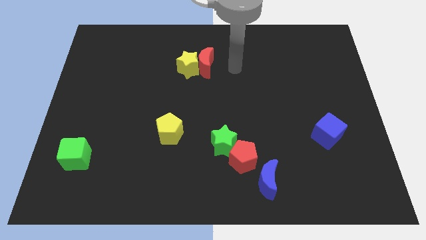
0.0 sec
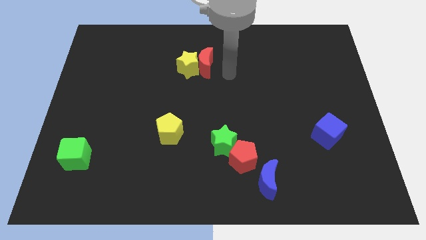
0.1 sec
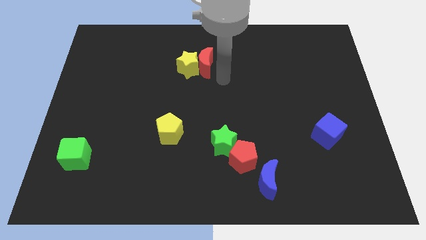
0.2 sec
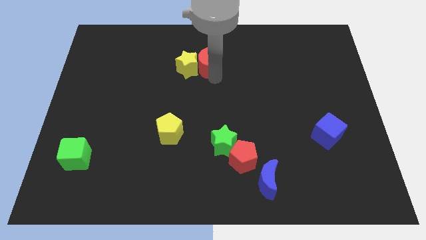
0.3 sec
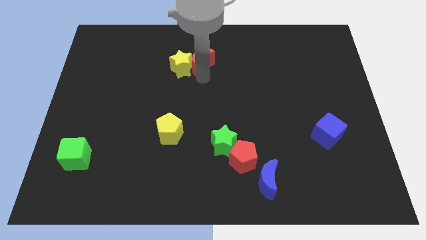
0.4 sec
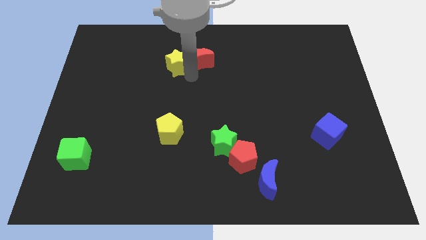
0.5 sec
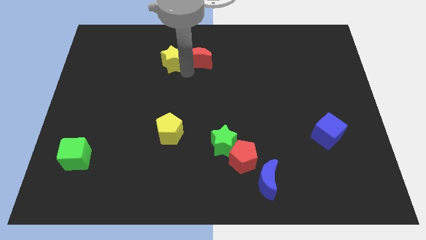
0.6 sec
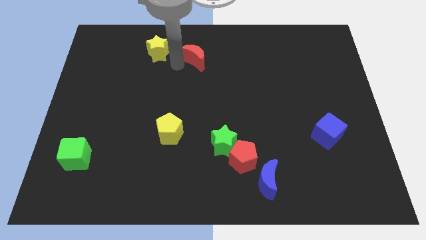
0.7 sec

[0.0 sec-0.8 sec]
pull the red moon apart from the yellow star

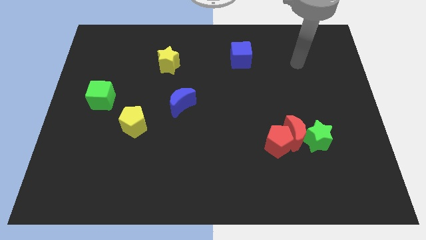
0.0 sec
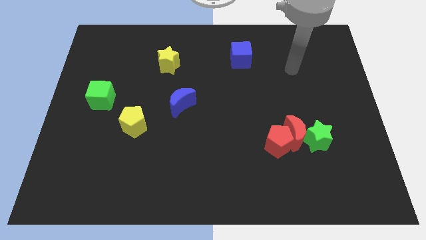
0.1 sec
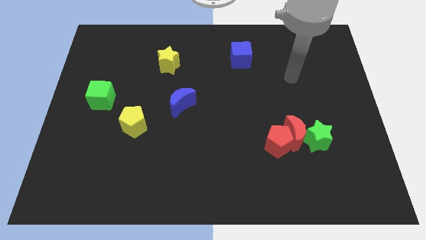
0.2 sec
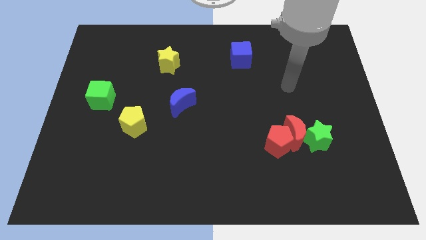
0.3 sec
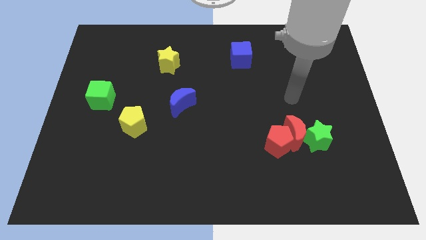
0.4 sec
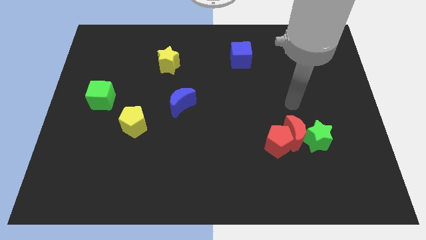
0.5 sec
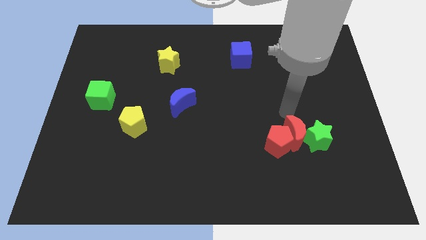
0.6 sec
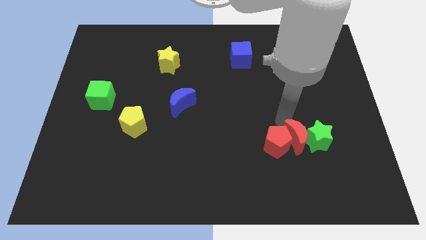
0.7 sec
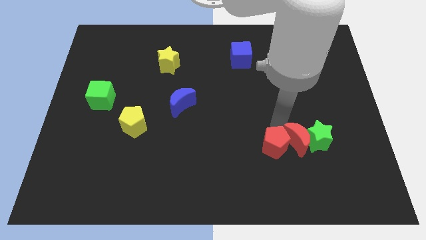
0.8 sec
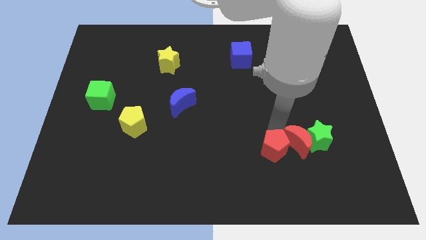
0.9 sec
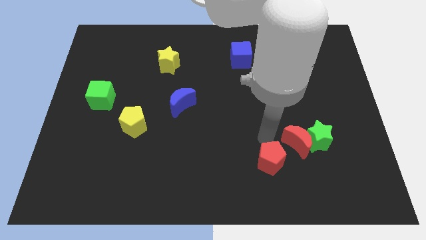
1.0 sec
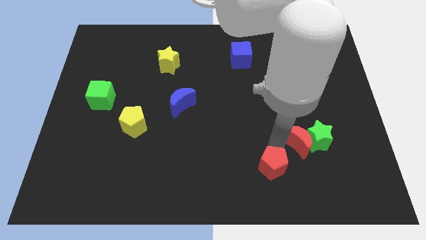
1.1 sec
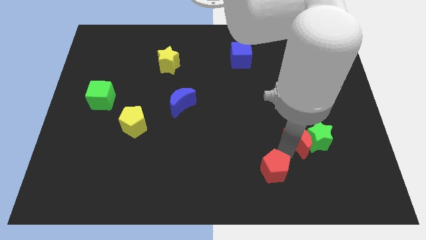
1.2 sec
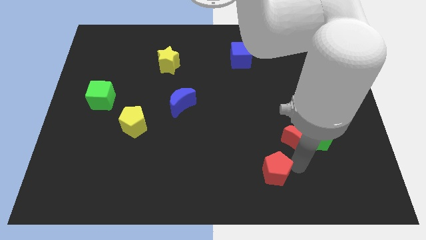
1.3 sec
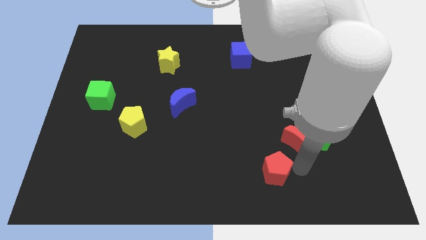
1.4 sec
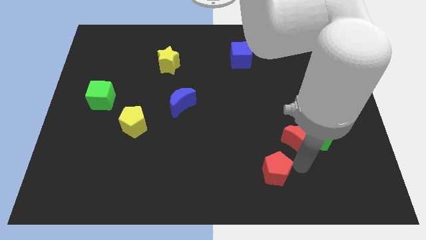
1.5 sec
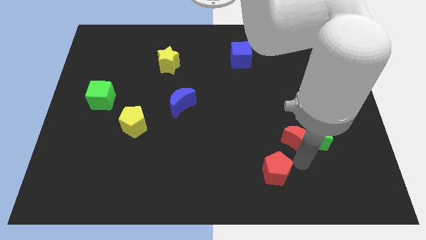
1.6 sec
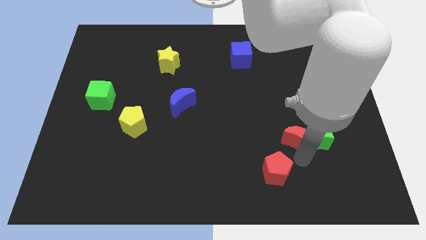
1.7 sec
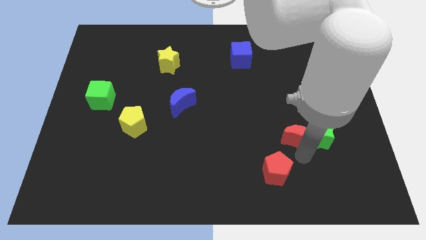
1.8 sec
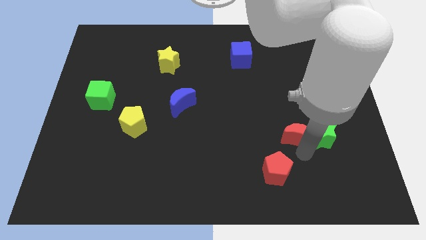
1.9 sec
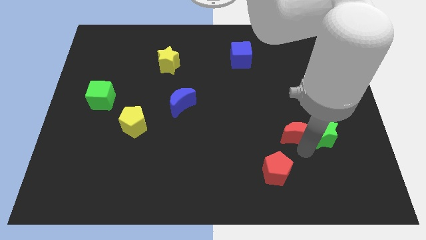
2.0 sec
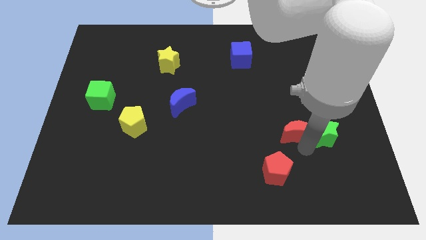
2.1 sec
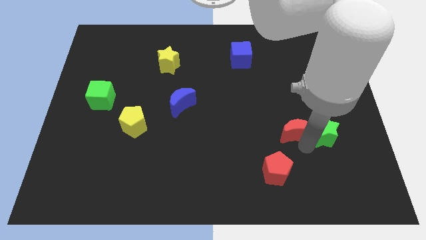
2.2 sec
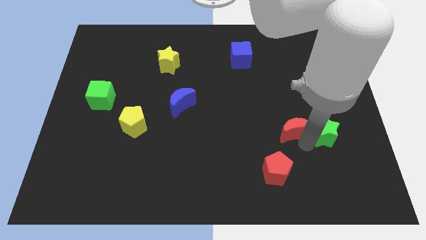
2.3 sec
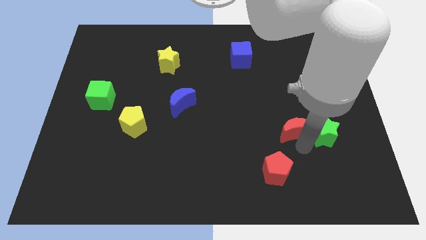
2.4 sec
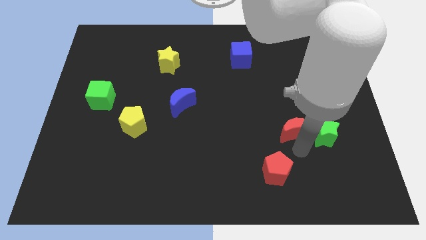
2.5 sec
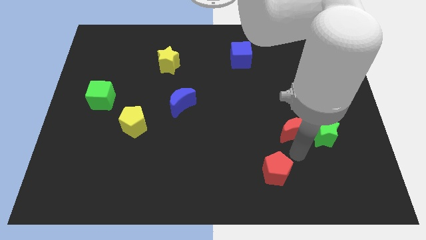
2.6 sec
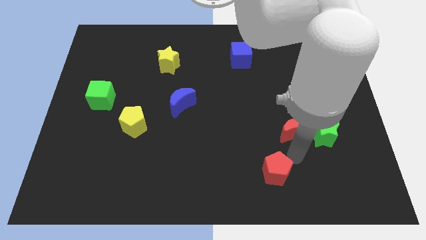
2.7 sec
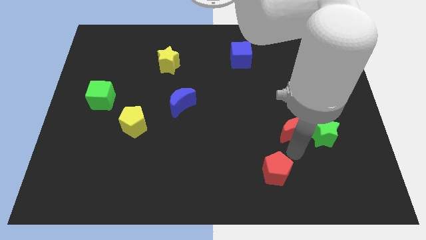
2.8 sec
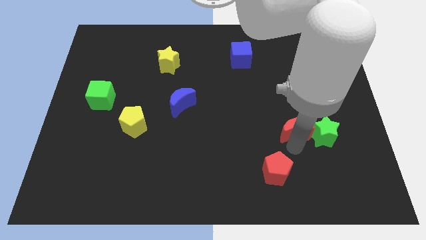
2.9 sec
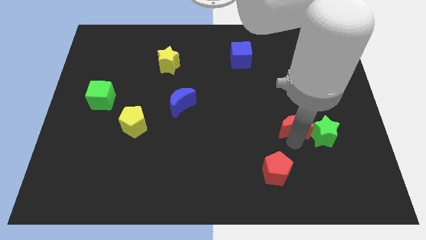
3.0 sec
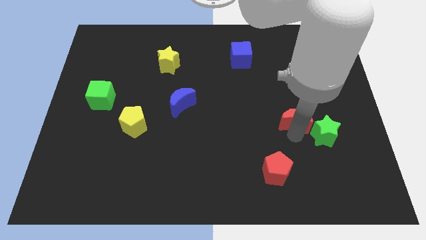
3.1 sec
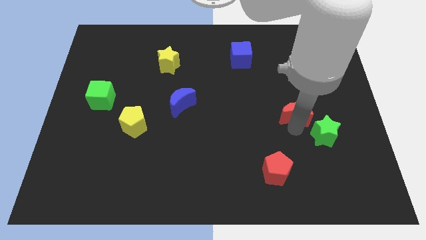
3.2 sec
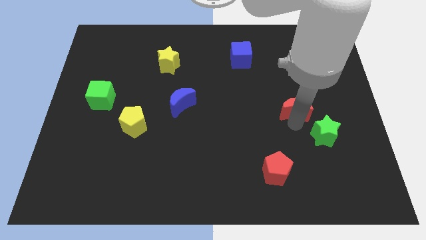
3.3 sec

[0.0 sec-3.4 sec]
move the red moon away from the green star and red pentagon

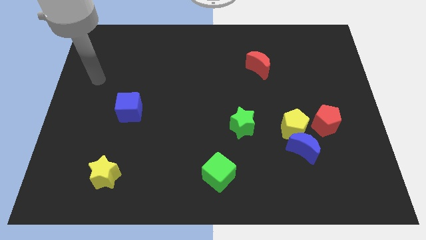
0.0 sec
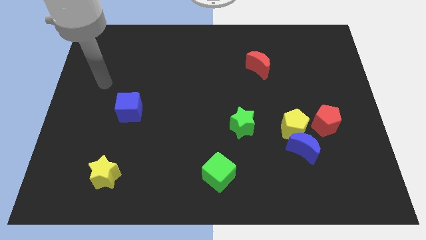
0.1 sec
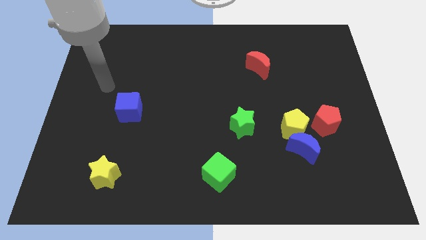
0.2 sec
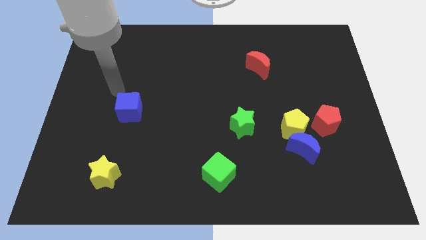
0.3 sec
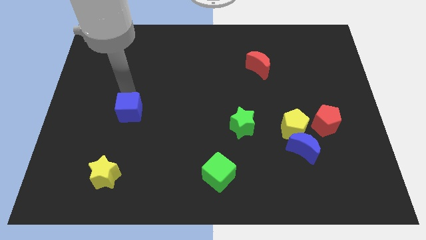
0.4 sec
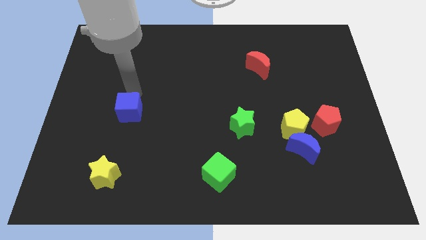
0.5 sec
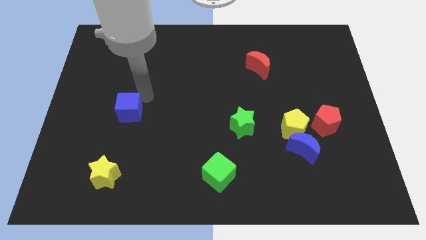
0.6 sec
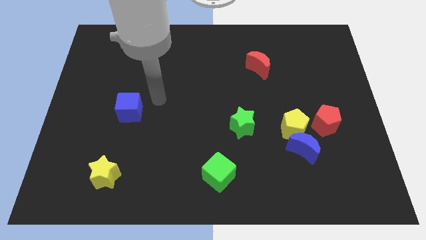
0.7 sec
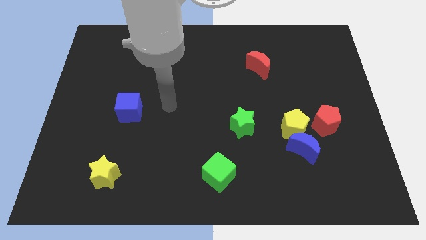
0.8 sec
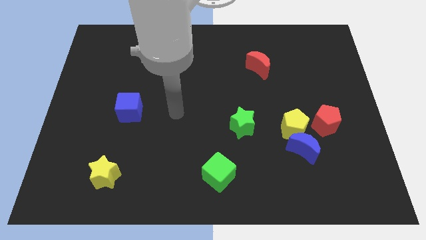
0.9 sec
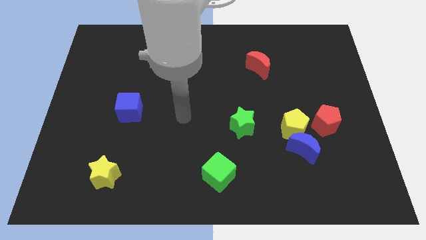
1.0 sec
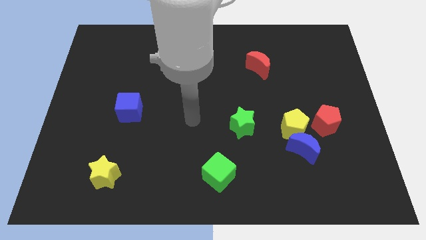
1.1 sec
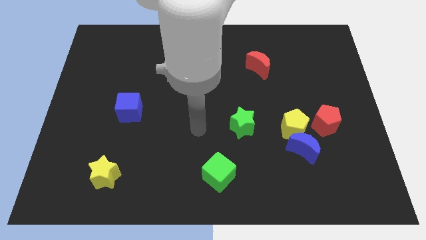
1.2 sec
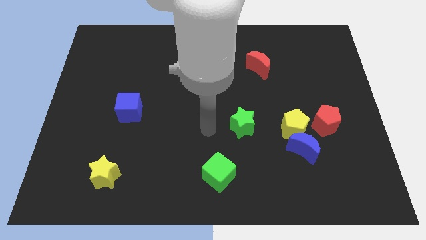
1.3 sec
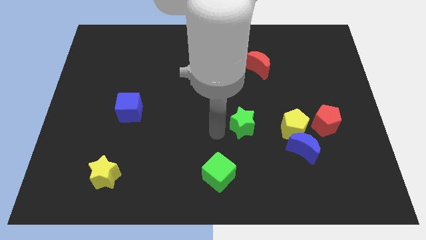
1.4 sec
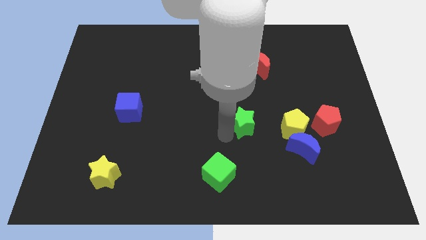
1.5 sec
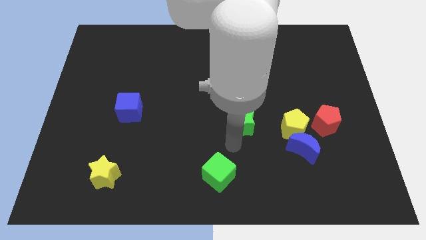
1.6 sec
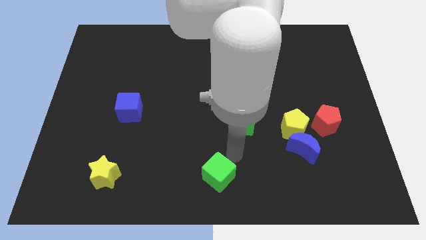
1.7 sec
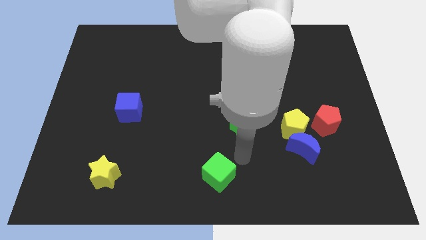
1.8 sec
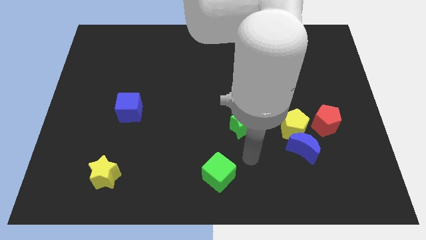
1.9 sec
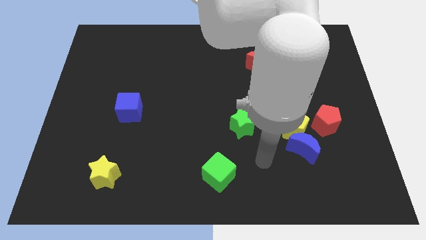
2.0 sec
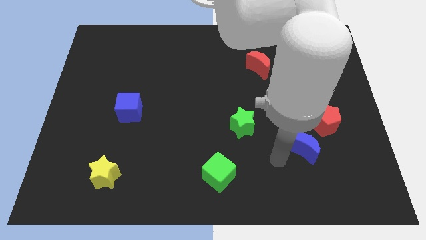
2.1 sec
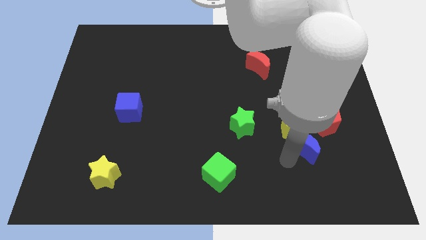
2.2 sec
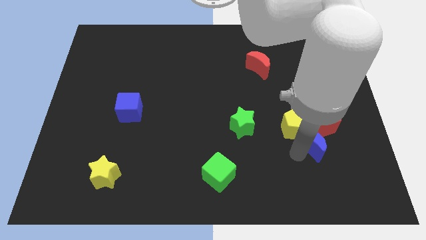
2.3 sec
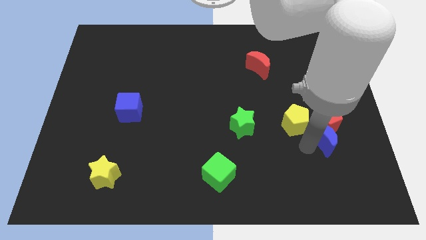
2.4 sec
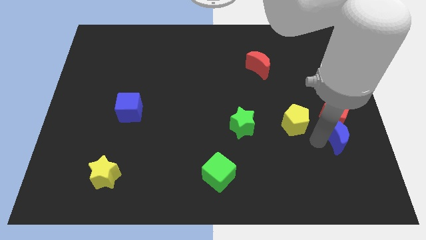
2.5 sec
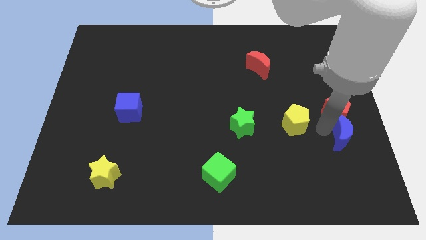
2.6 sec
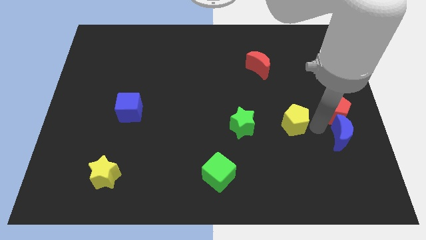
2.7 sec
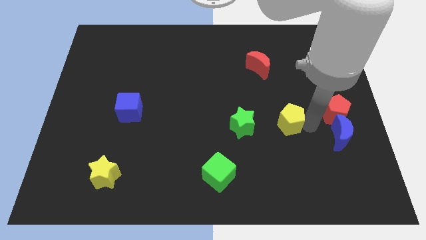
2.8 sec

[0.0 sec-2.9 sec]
separate the yellow pentagon from the blue moon and red pentagon

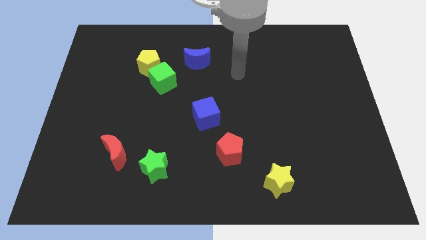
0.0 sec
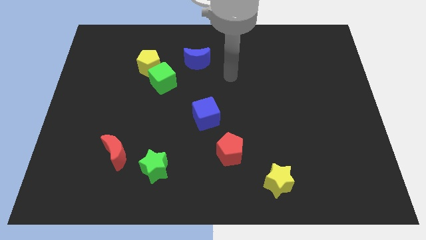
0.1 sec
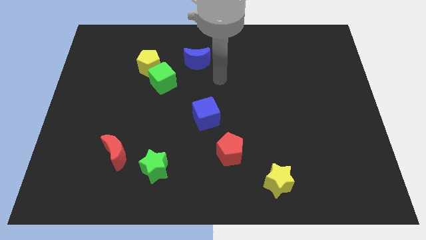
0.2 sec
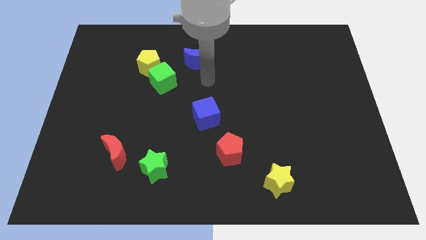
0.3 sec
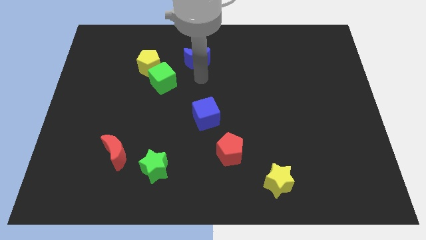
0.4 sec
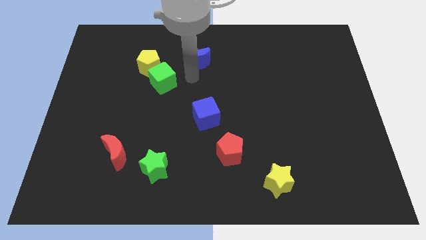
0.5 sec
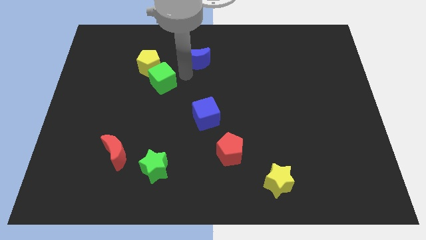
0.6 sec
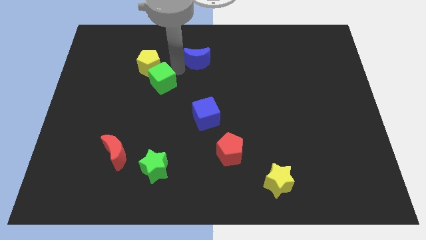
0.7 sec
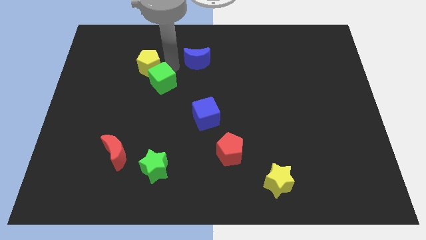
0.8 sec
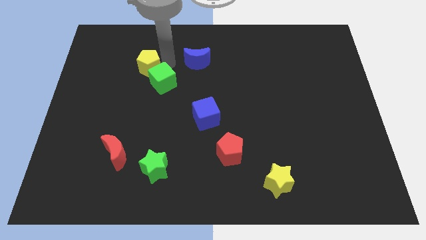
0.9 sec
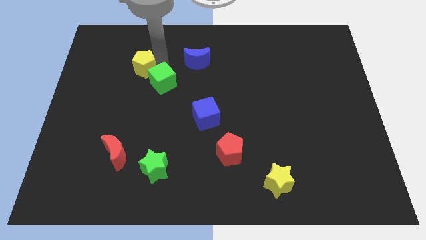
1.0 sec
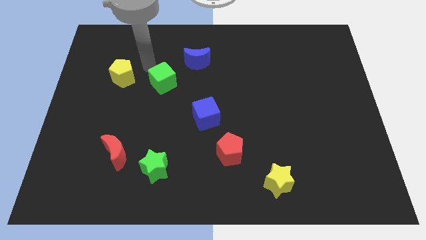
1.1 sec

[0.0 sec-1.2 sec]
separate the green cube from the yellow pentagon

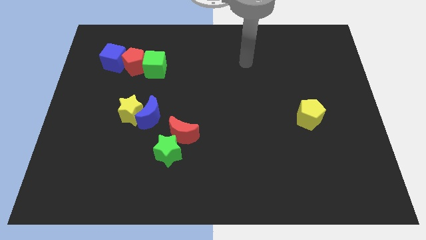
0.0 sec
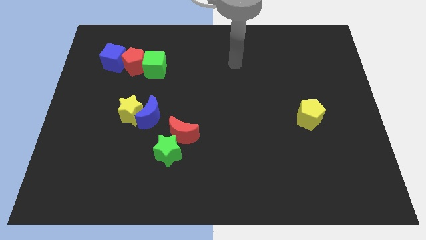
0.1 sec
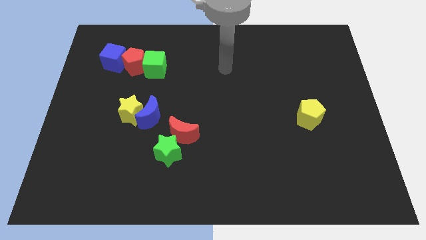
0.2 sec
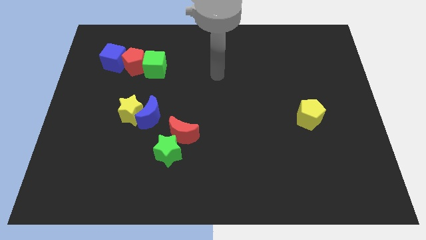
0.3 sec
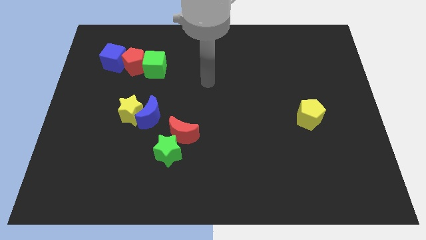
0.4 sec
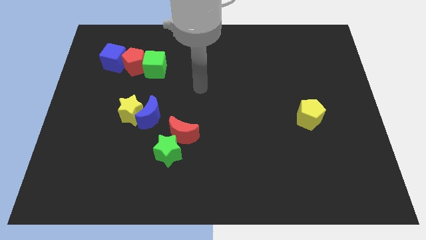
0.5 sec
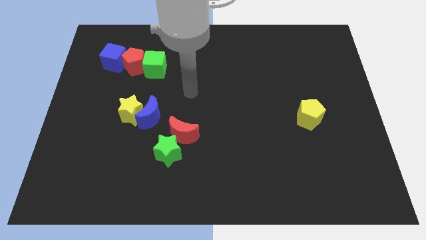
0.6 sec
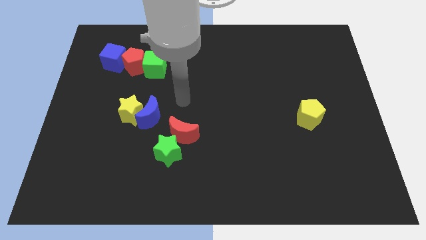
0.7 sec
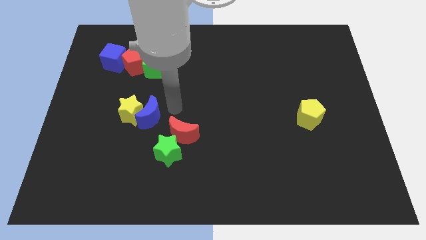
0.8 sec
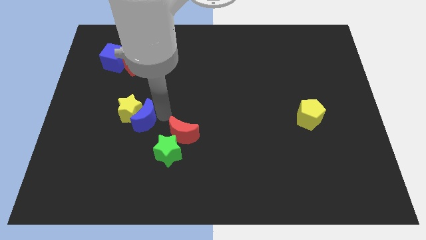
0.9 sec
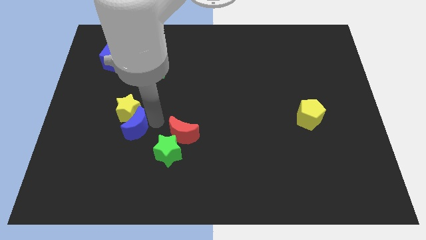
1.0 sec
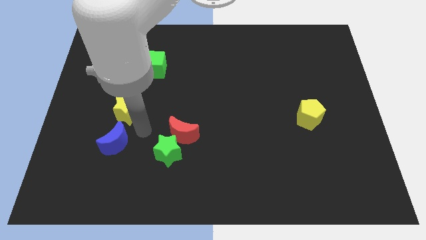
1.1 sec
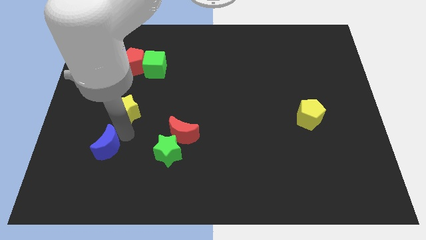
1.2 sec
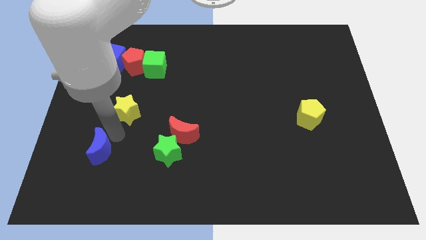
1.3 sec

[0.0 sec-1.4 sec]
separate the yellow star from the blue moon
